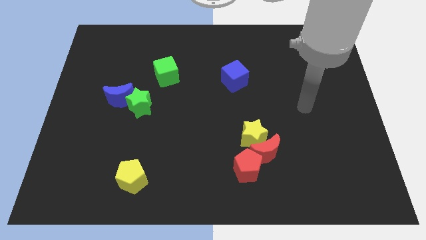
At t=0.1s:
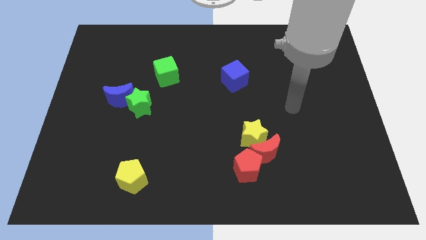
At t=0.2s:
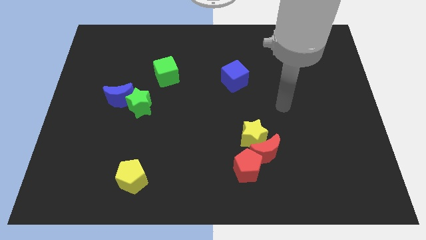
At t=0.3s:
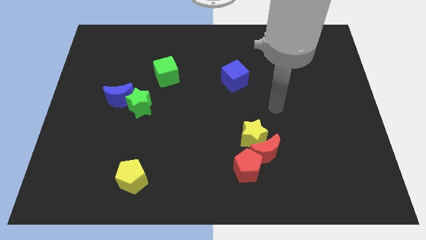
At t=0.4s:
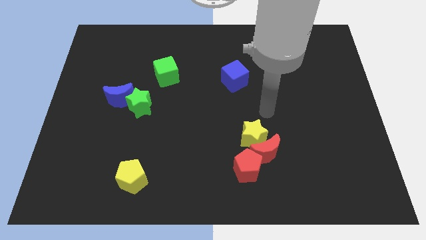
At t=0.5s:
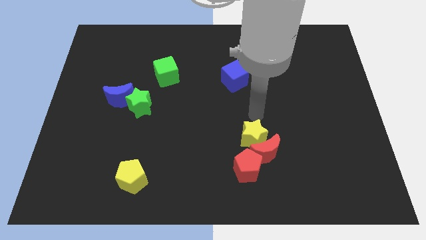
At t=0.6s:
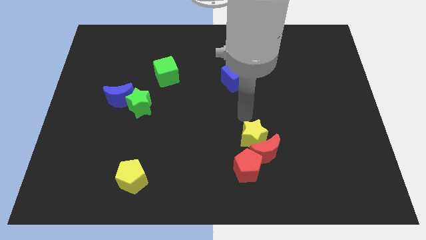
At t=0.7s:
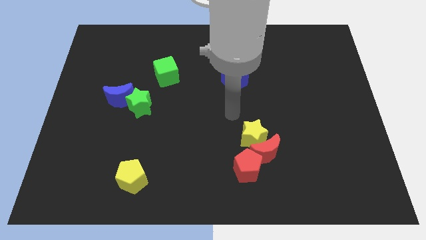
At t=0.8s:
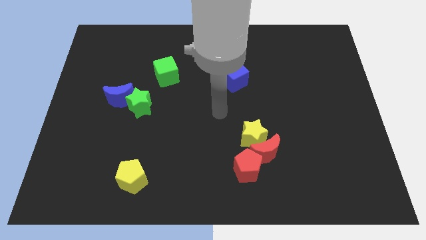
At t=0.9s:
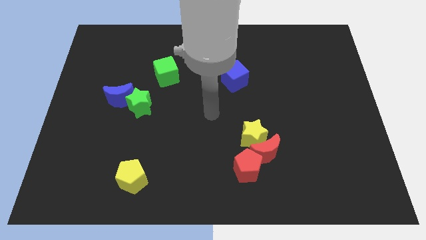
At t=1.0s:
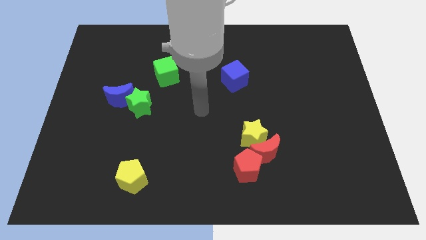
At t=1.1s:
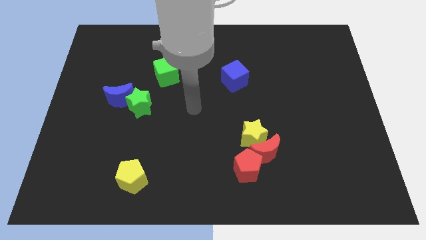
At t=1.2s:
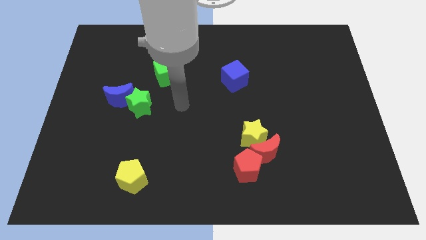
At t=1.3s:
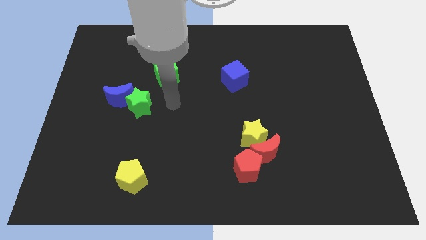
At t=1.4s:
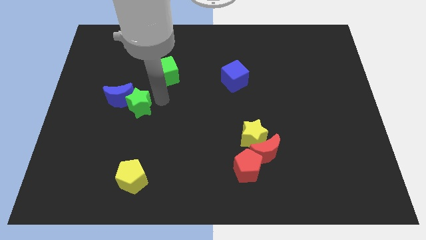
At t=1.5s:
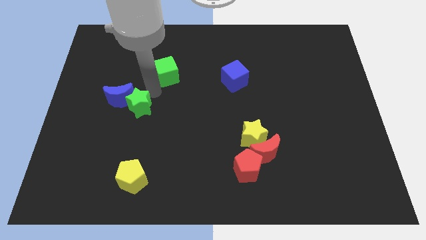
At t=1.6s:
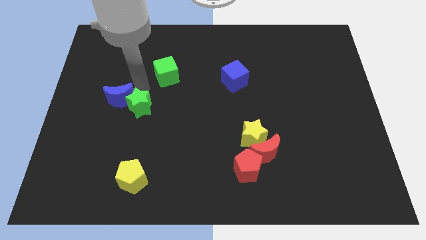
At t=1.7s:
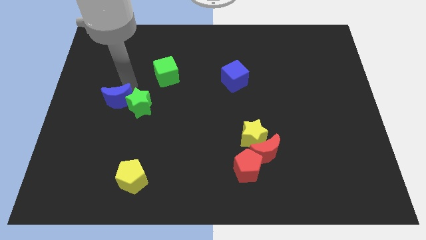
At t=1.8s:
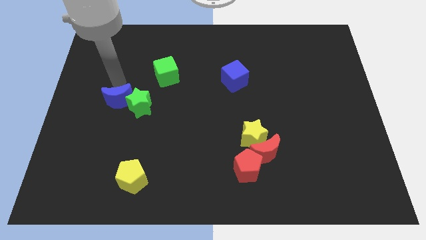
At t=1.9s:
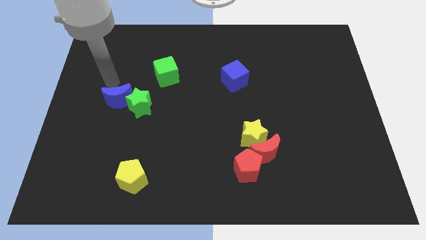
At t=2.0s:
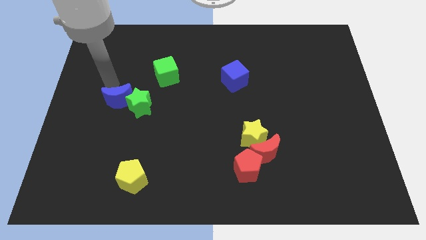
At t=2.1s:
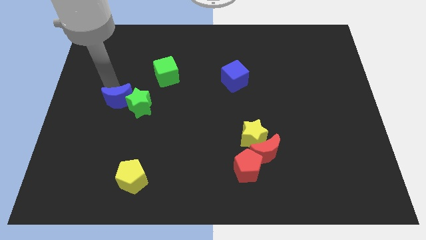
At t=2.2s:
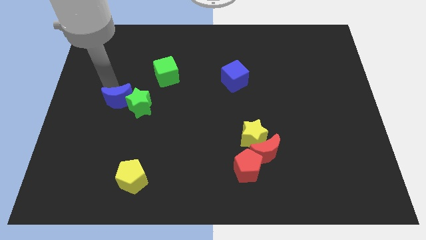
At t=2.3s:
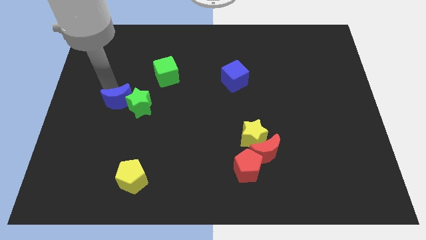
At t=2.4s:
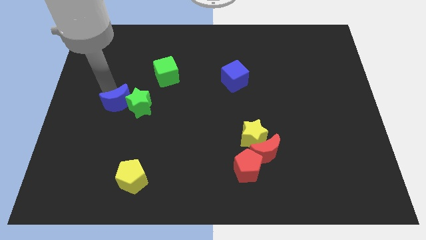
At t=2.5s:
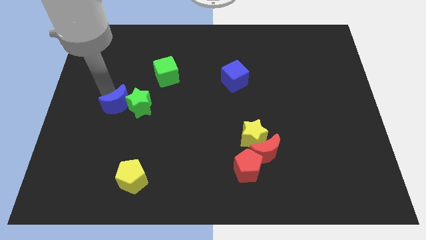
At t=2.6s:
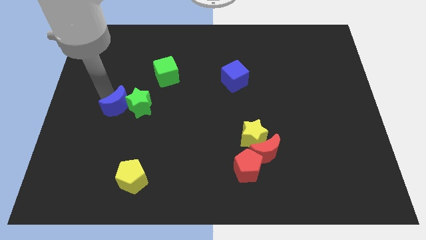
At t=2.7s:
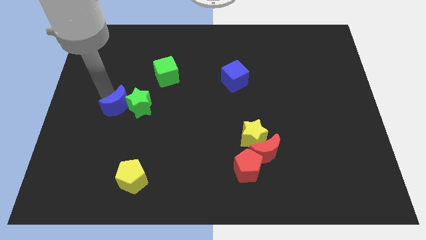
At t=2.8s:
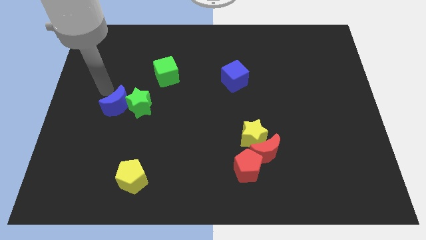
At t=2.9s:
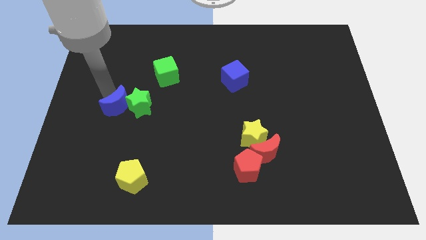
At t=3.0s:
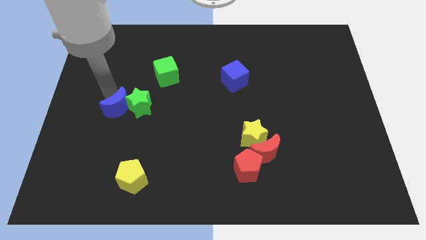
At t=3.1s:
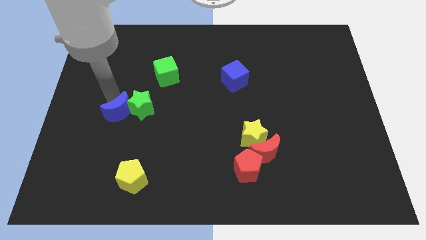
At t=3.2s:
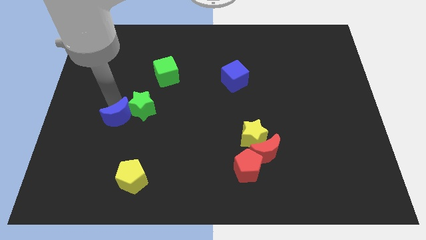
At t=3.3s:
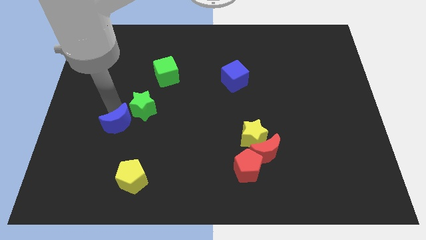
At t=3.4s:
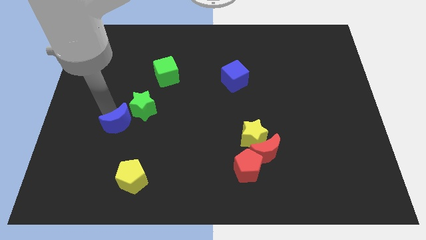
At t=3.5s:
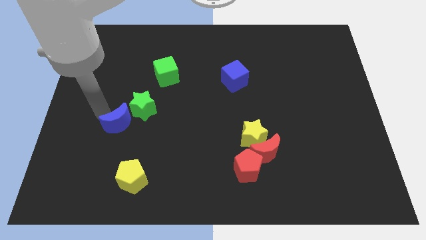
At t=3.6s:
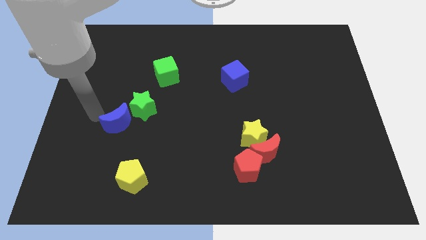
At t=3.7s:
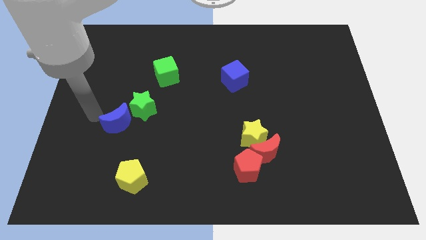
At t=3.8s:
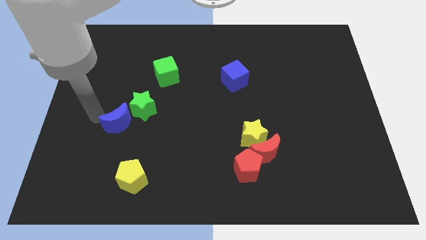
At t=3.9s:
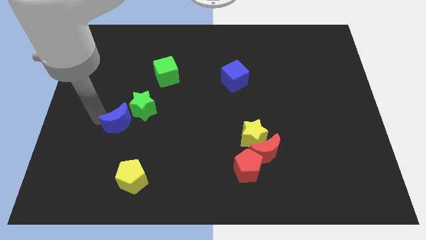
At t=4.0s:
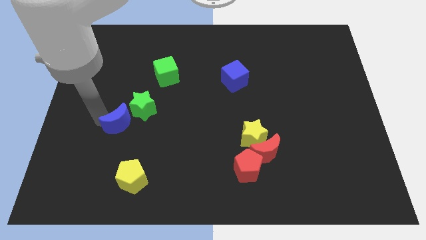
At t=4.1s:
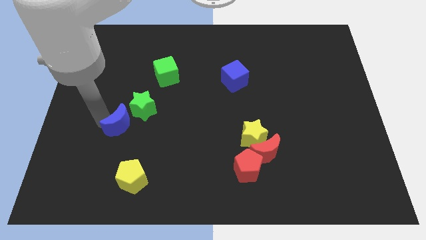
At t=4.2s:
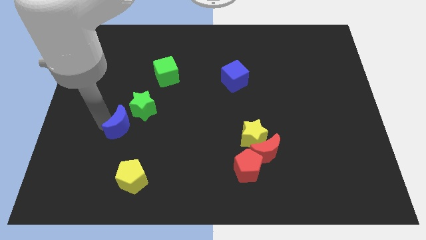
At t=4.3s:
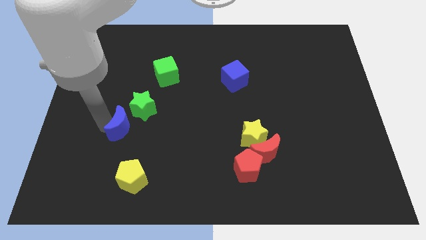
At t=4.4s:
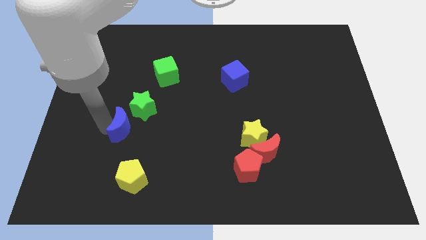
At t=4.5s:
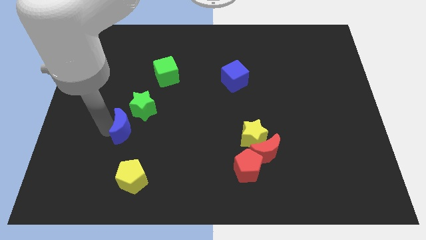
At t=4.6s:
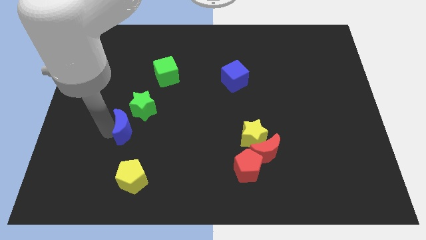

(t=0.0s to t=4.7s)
push the blue moon down and then to the right a bit

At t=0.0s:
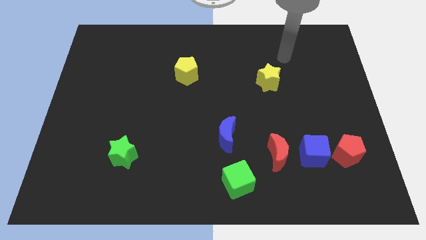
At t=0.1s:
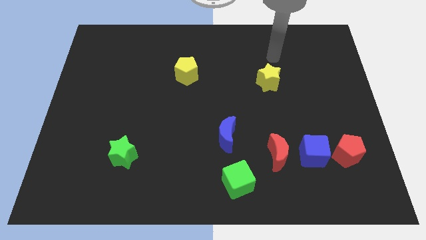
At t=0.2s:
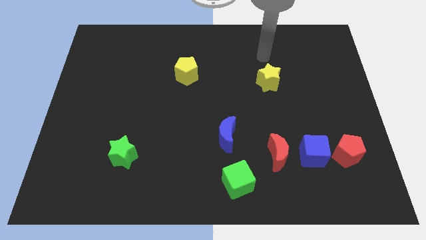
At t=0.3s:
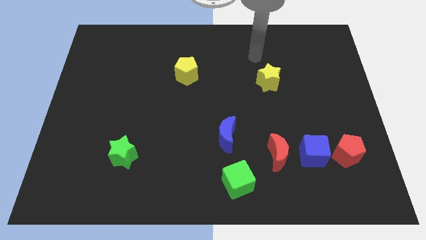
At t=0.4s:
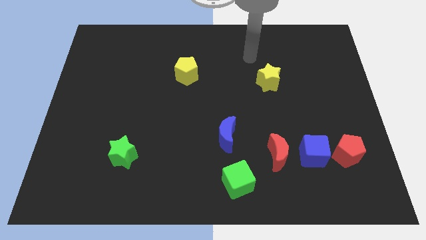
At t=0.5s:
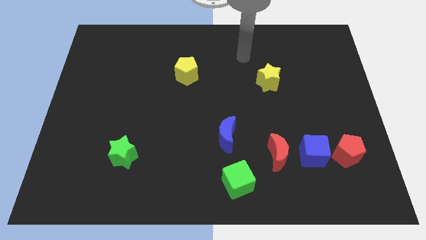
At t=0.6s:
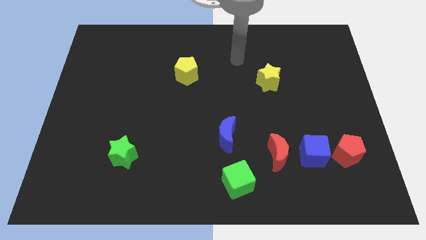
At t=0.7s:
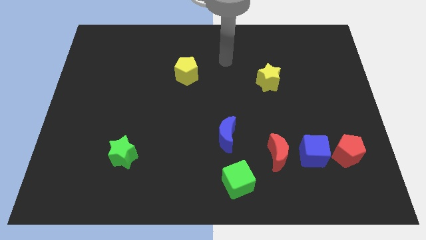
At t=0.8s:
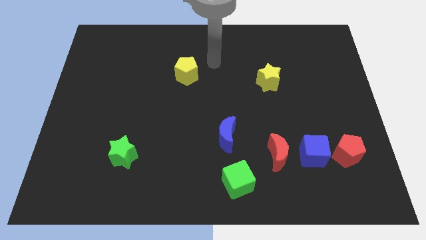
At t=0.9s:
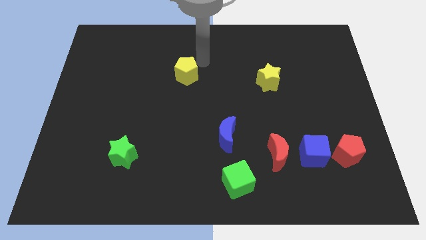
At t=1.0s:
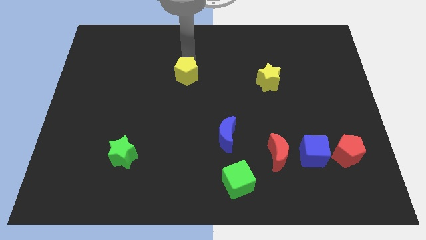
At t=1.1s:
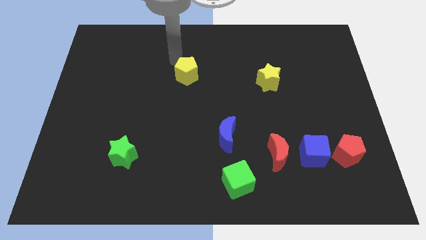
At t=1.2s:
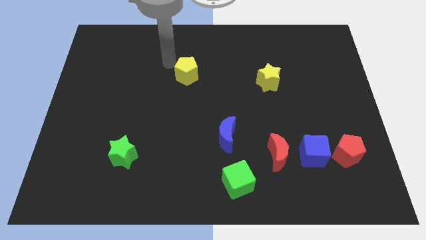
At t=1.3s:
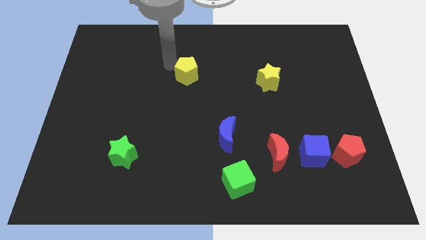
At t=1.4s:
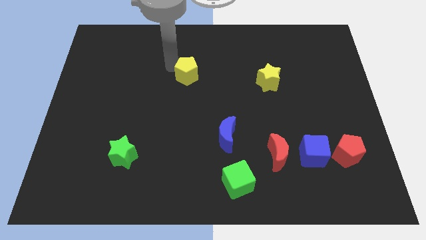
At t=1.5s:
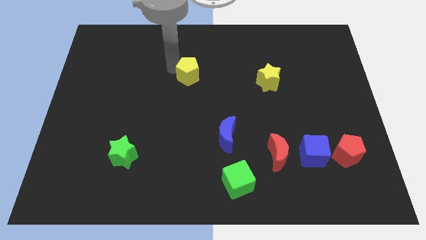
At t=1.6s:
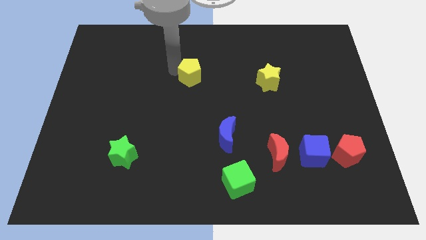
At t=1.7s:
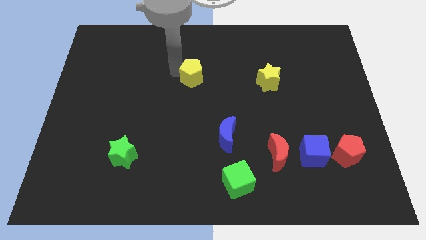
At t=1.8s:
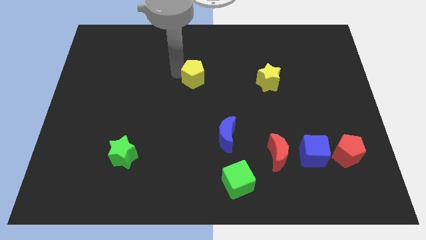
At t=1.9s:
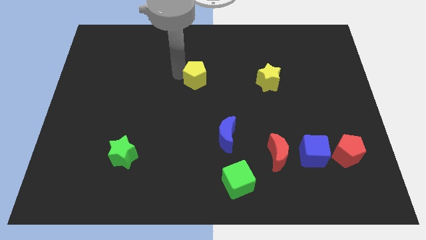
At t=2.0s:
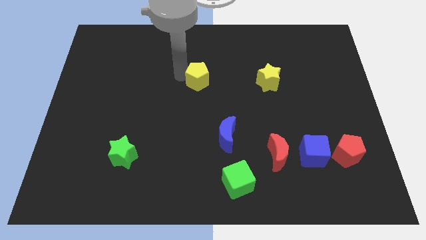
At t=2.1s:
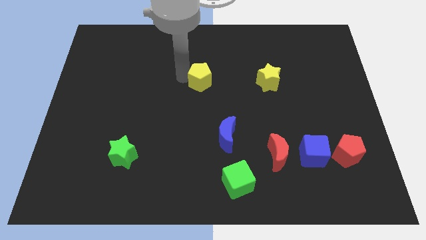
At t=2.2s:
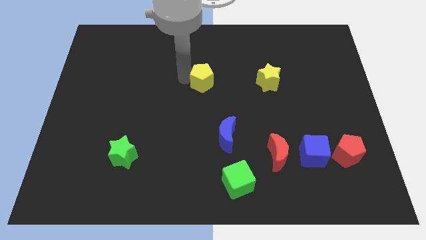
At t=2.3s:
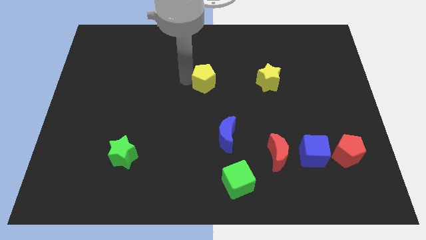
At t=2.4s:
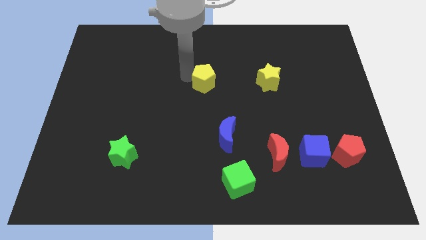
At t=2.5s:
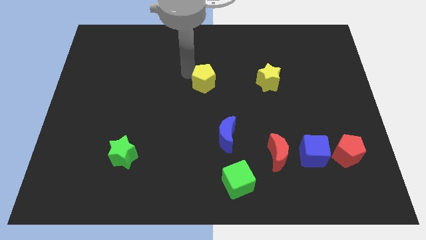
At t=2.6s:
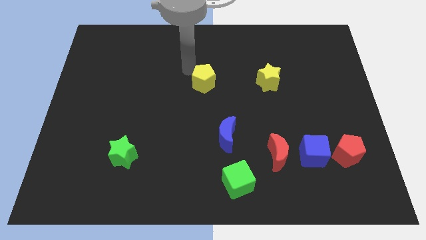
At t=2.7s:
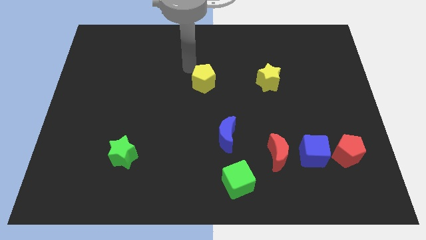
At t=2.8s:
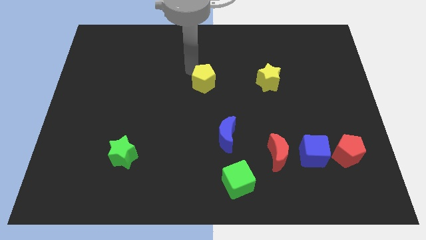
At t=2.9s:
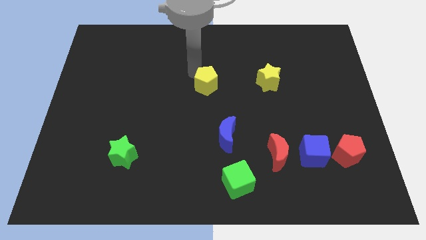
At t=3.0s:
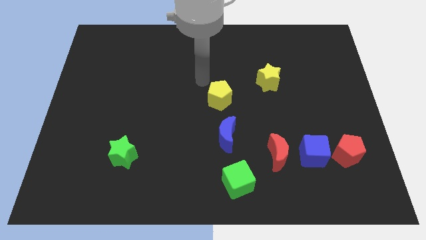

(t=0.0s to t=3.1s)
slightly push the yellow pentagon downwards and to the right diagonally

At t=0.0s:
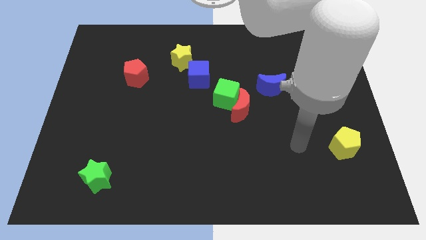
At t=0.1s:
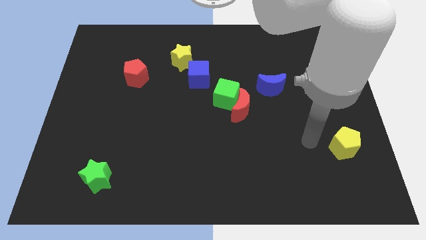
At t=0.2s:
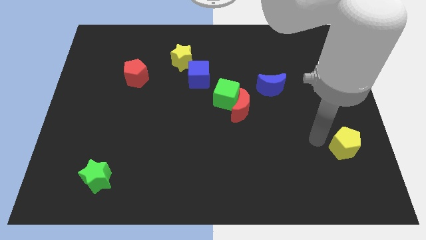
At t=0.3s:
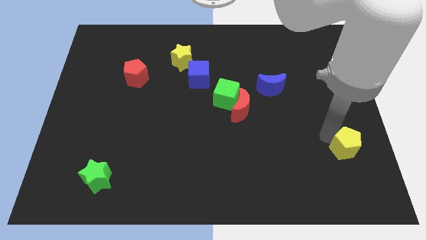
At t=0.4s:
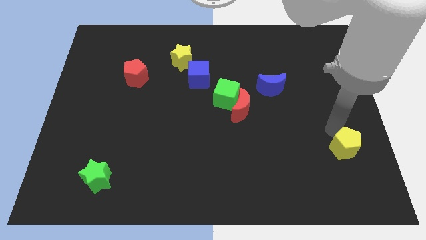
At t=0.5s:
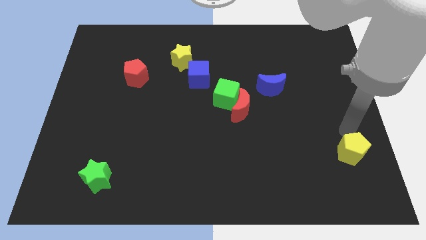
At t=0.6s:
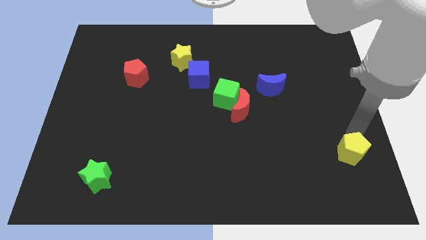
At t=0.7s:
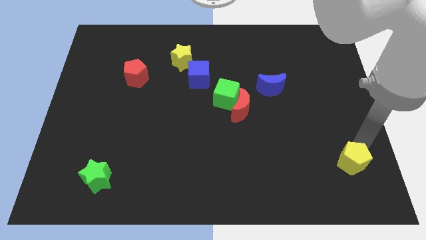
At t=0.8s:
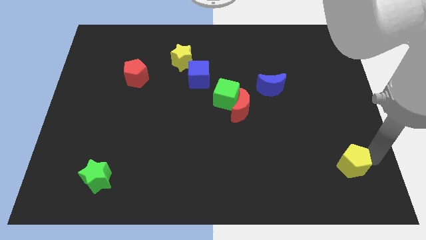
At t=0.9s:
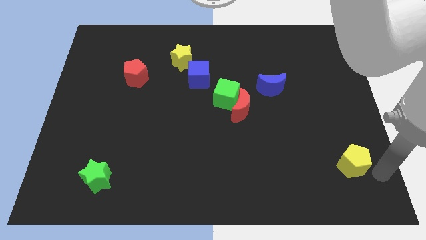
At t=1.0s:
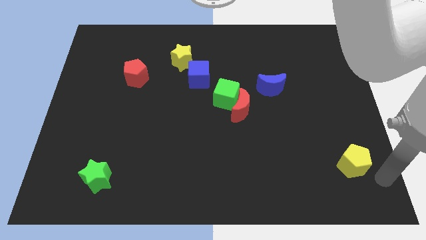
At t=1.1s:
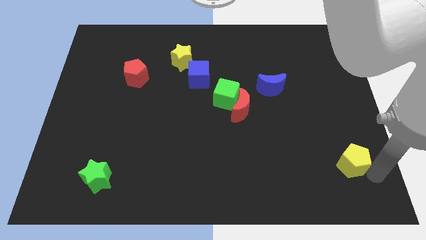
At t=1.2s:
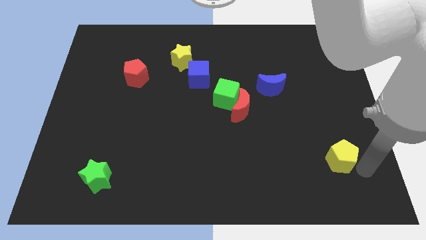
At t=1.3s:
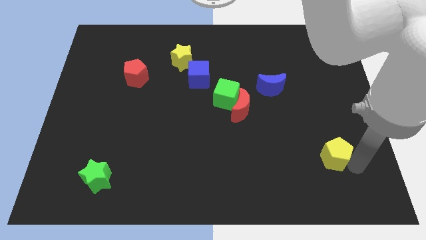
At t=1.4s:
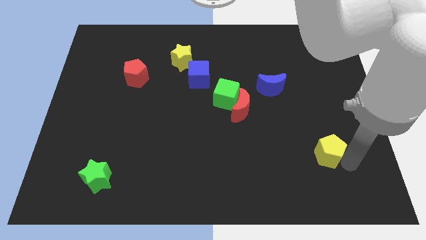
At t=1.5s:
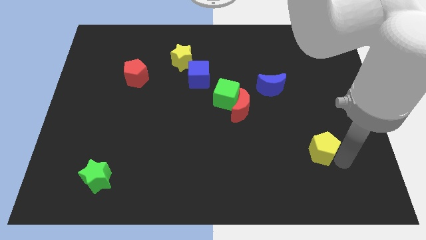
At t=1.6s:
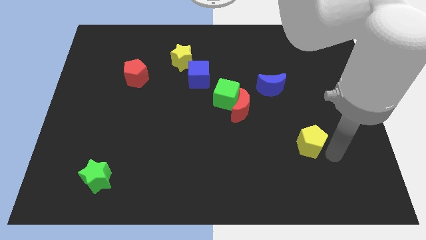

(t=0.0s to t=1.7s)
move the yellow pentagon somewhat left
